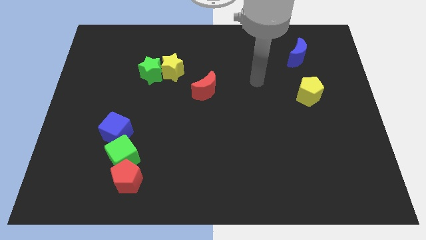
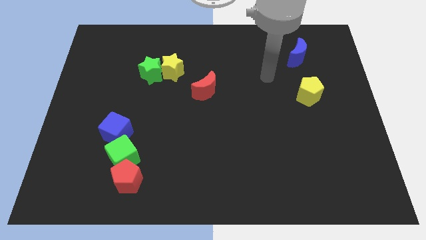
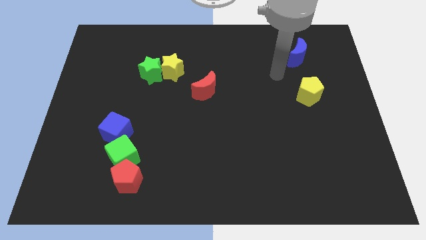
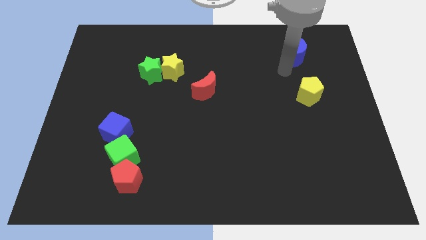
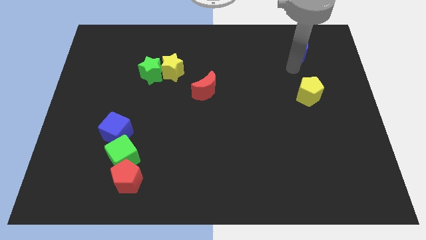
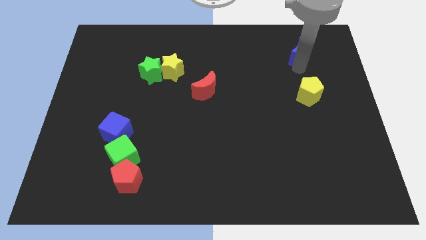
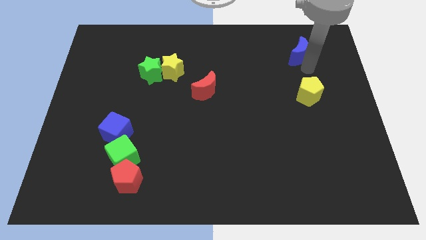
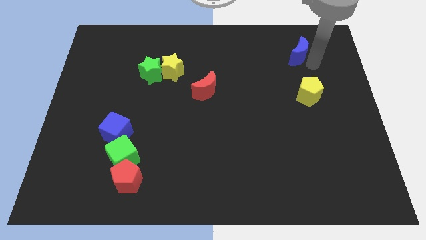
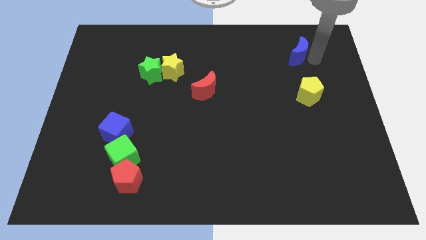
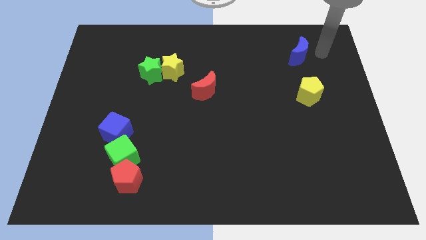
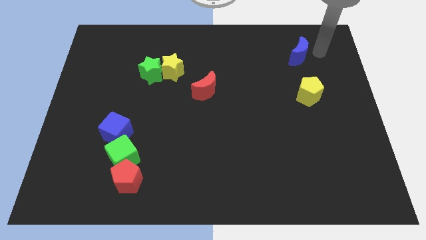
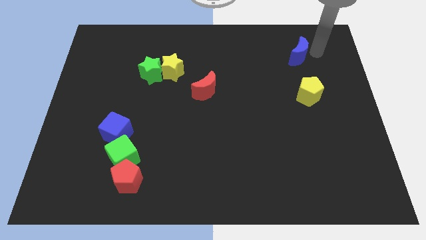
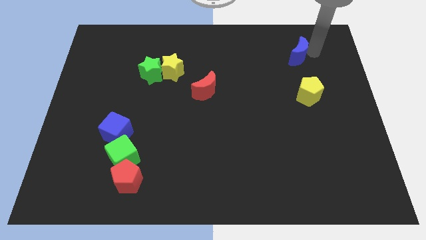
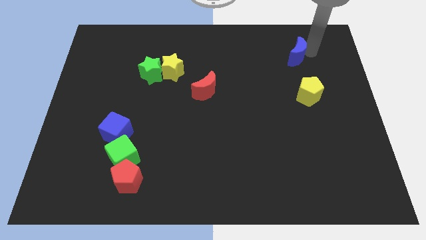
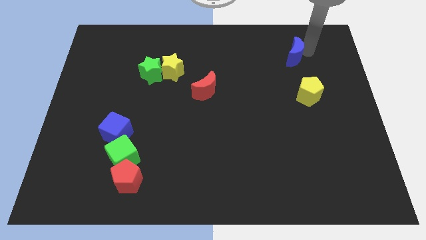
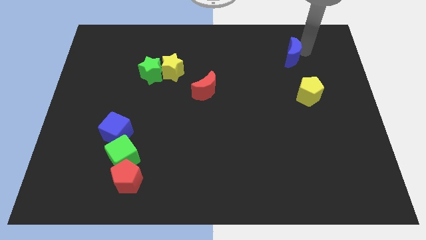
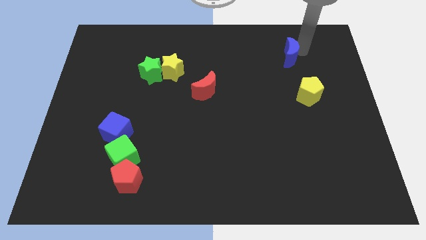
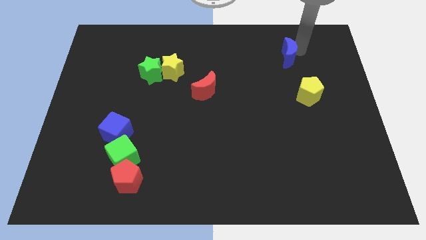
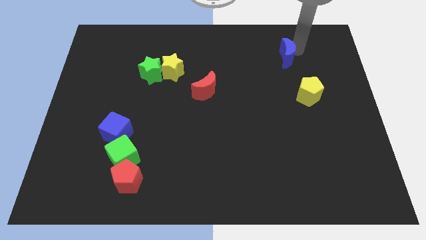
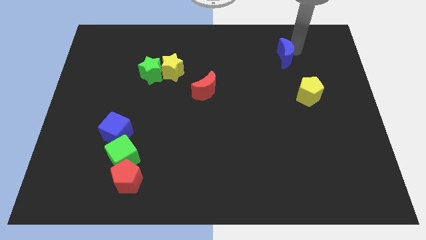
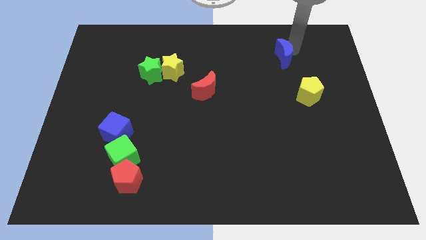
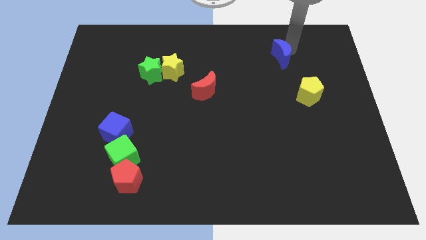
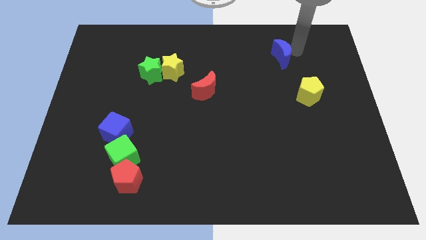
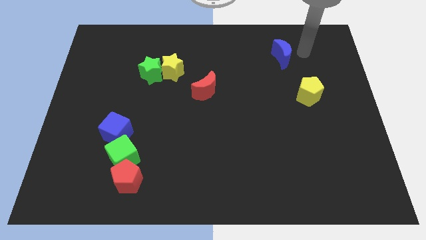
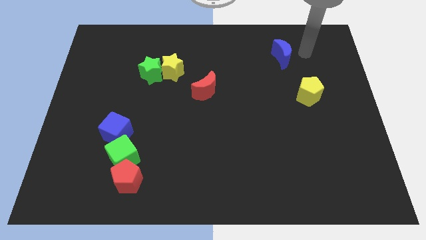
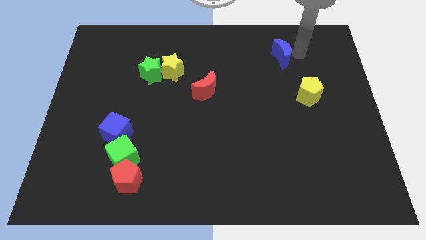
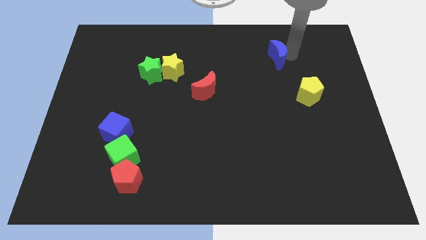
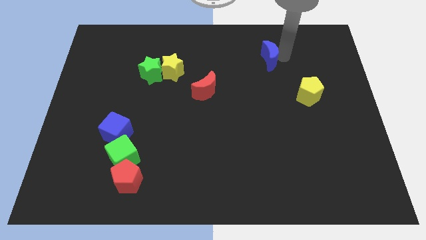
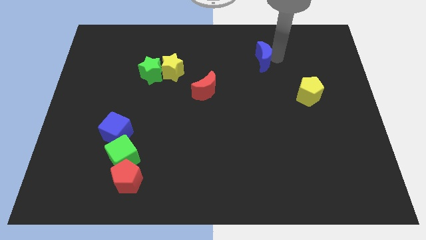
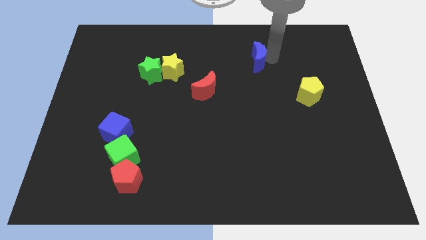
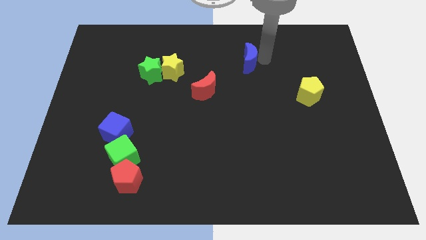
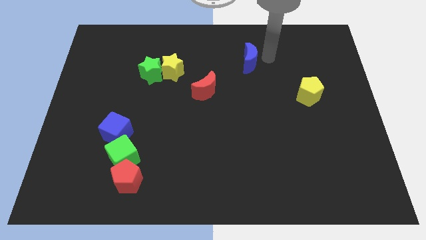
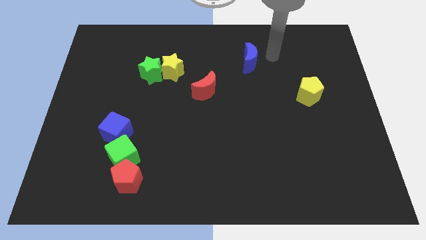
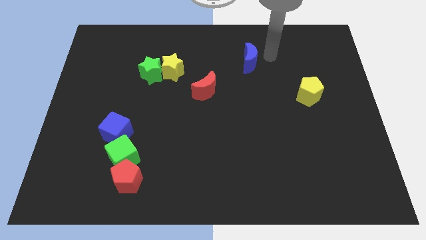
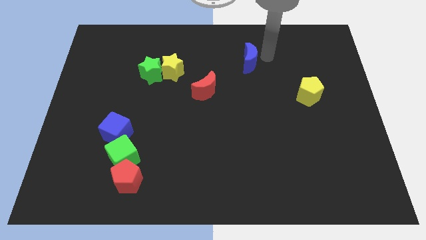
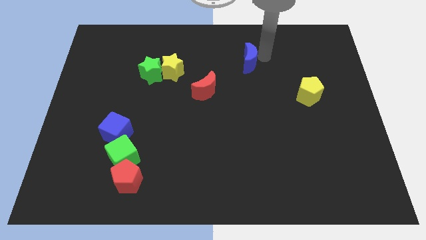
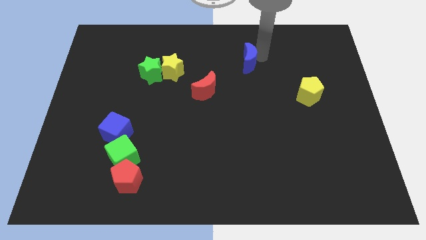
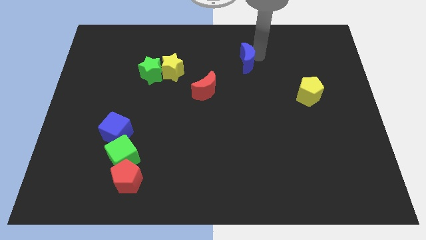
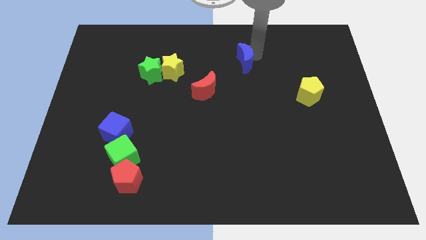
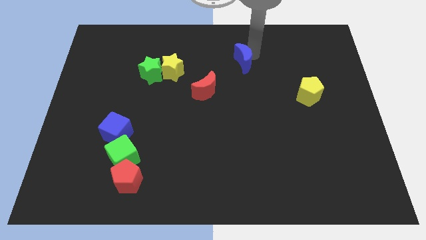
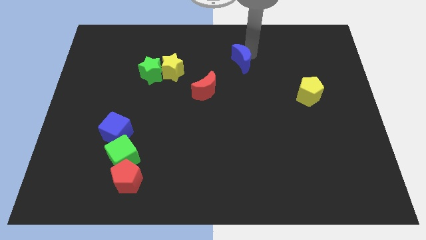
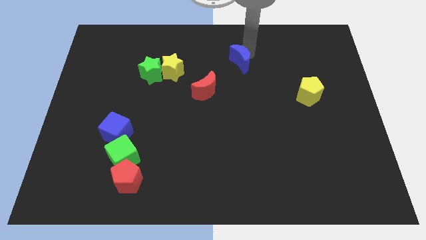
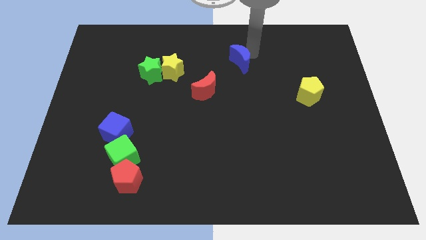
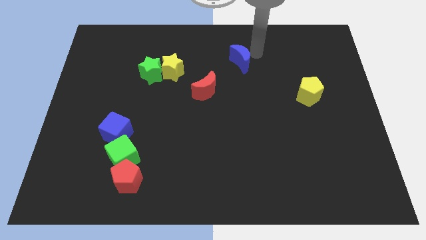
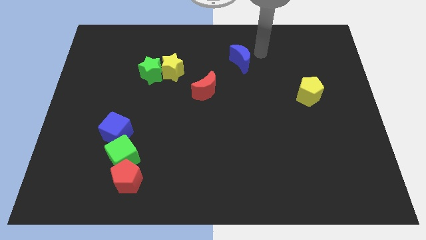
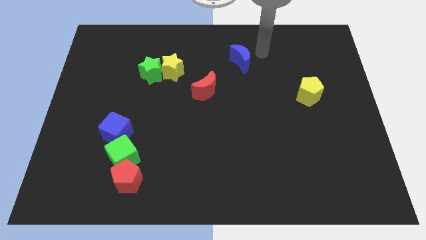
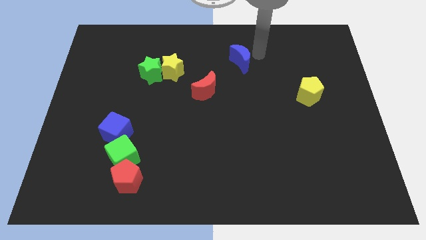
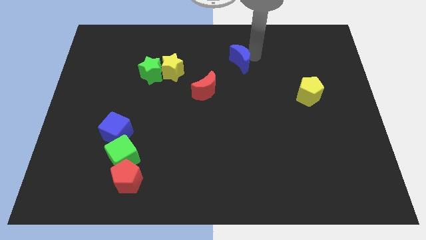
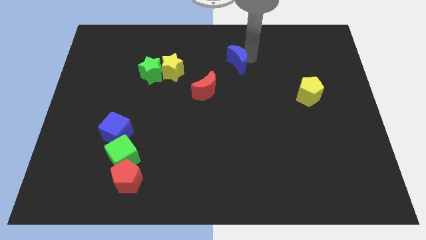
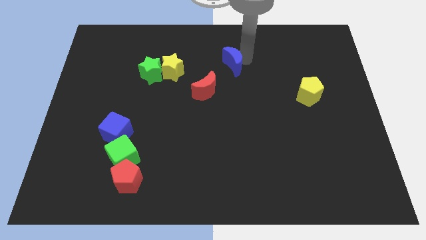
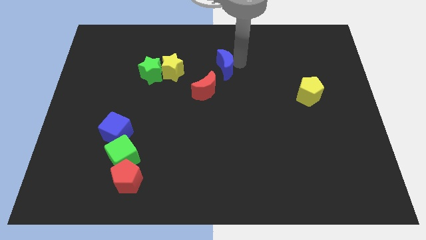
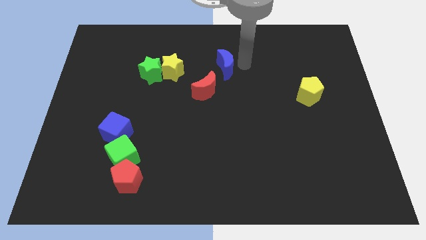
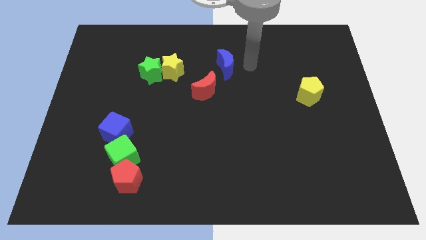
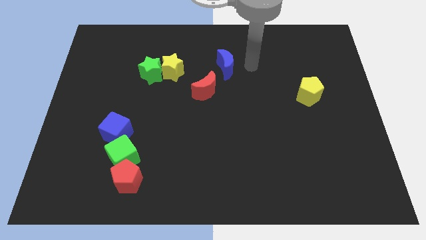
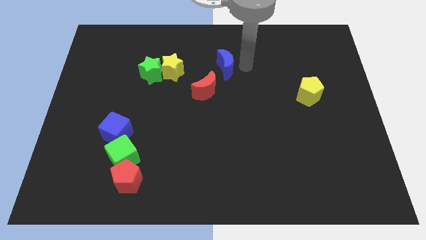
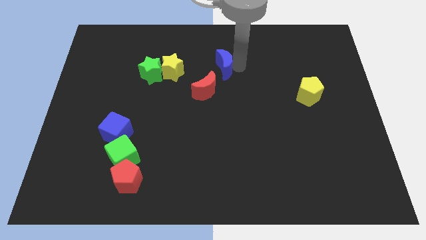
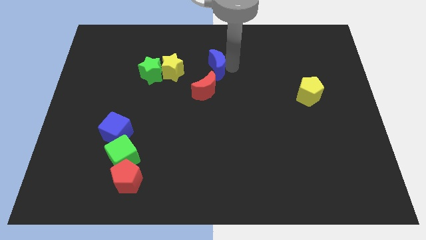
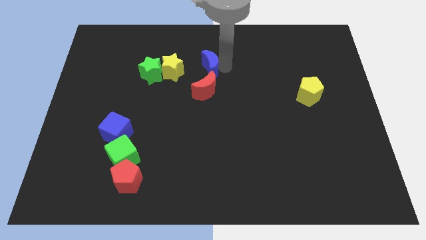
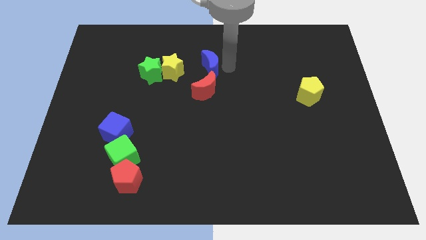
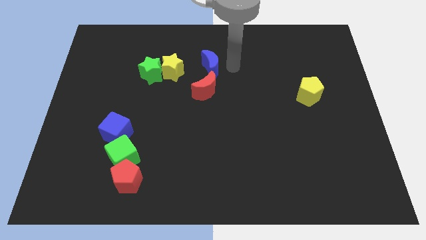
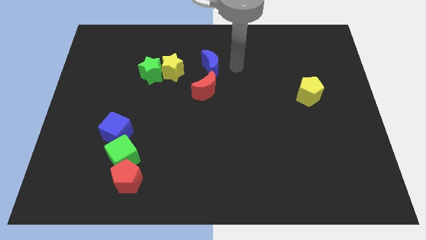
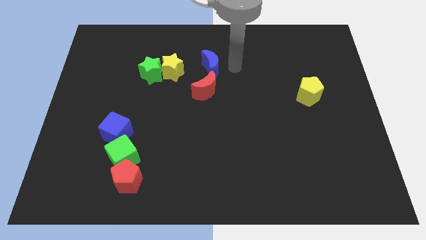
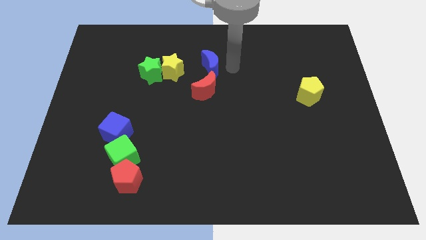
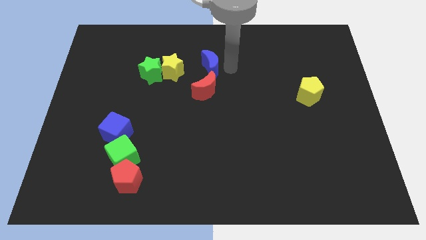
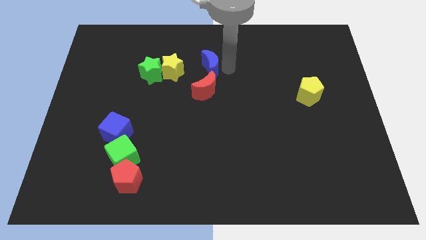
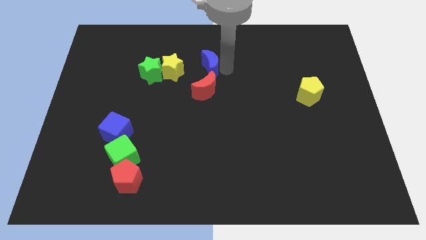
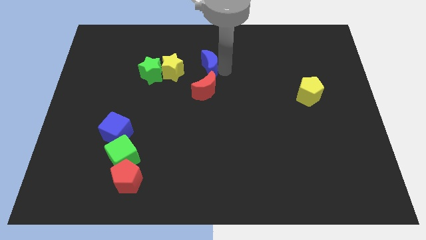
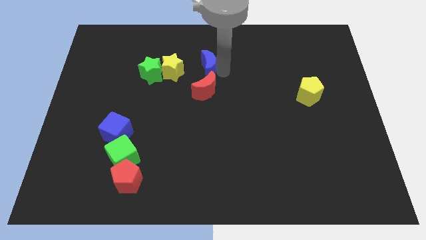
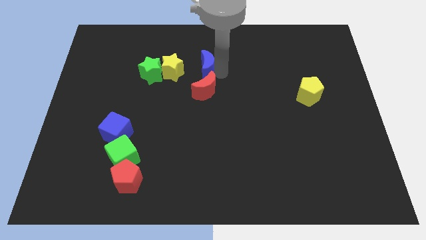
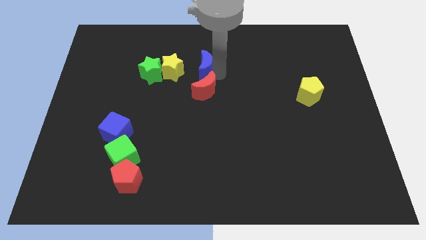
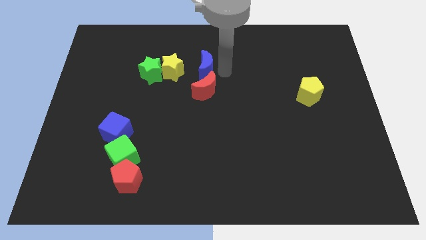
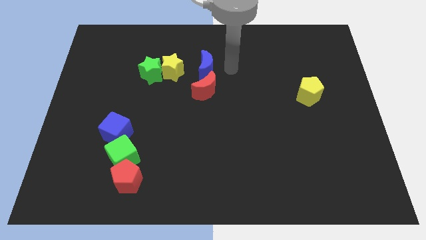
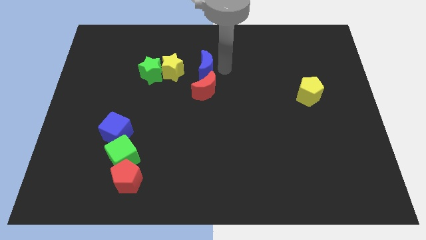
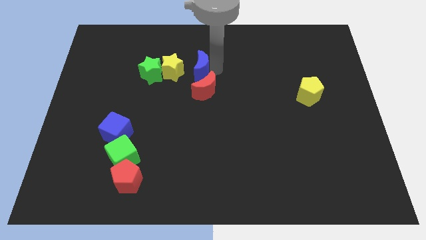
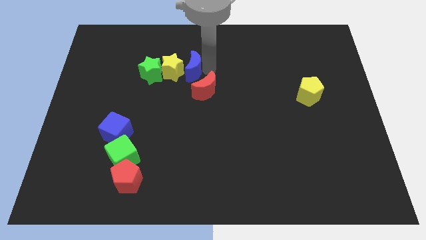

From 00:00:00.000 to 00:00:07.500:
push the blue moon close to the yellow star
